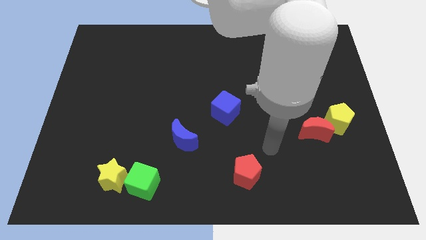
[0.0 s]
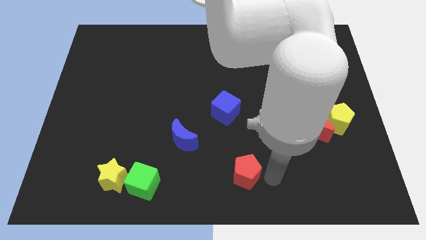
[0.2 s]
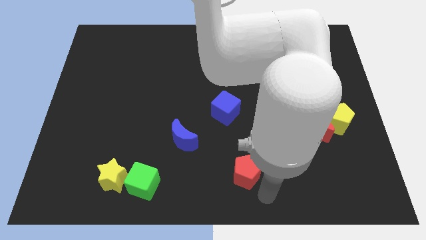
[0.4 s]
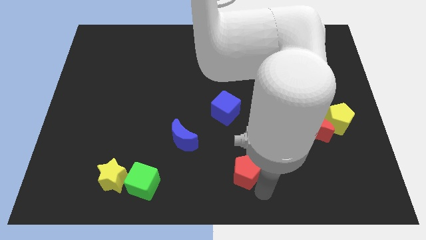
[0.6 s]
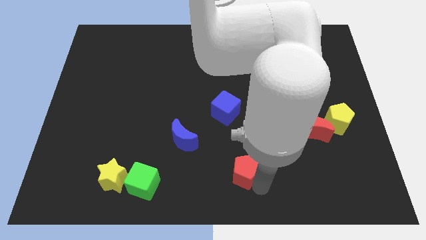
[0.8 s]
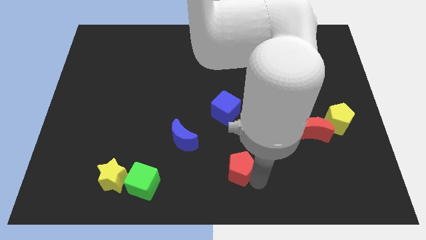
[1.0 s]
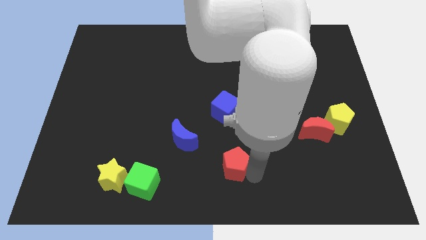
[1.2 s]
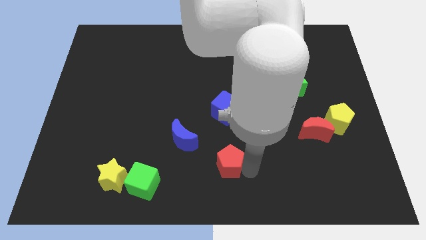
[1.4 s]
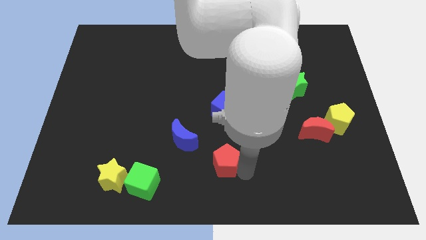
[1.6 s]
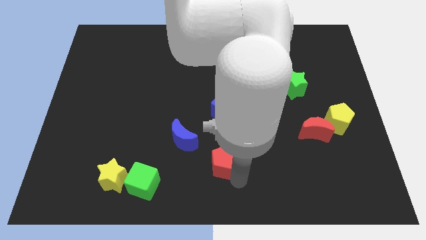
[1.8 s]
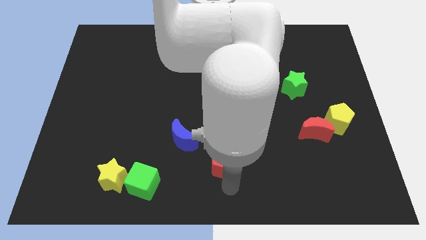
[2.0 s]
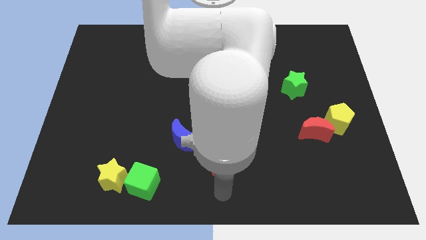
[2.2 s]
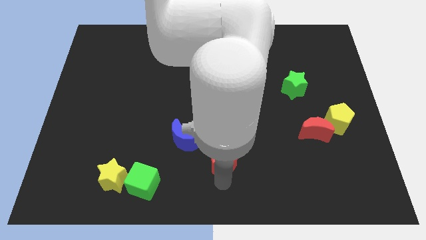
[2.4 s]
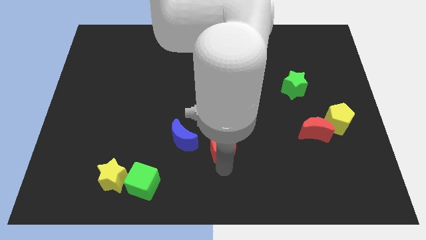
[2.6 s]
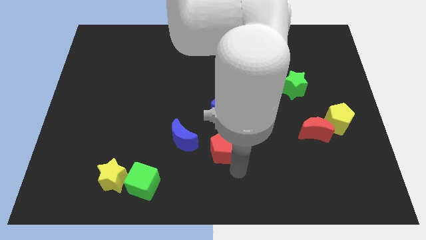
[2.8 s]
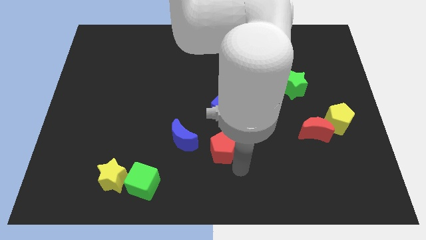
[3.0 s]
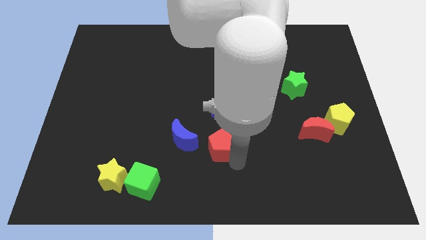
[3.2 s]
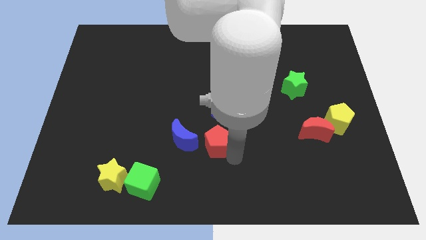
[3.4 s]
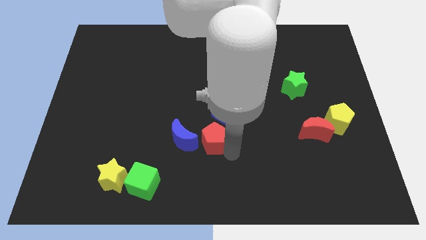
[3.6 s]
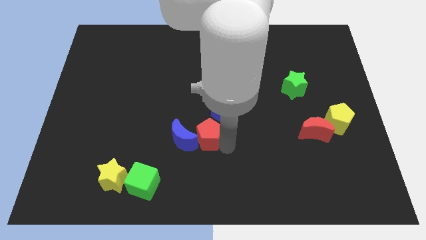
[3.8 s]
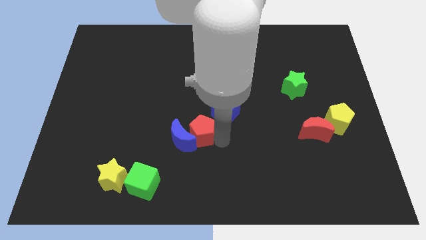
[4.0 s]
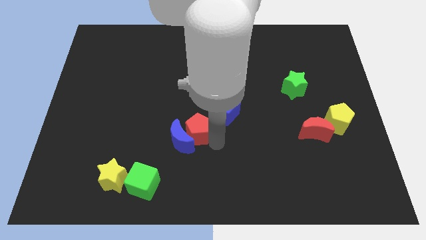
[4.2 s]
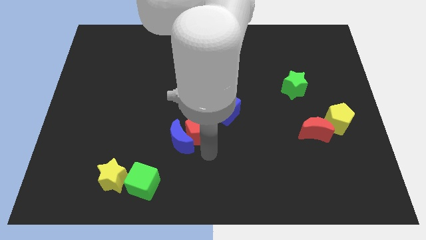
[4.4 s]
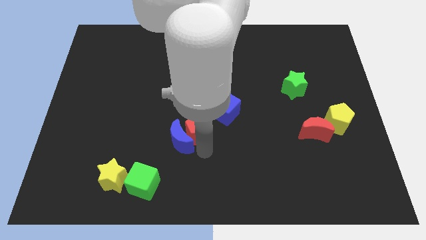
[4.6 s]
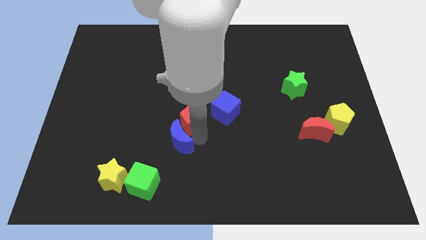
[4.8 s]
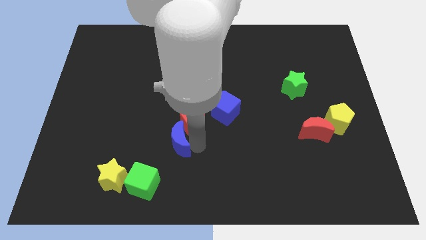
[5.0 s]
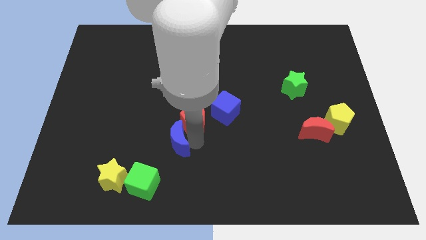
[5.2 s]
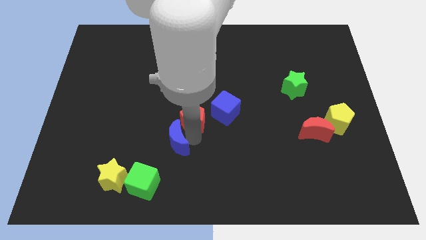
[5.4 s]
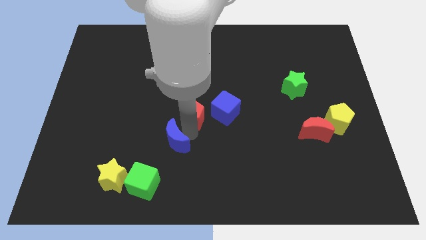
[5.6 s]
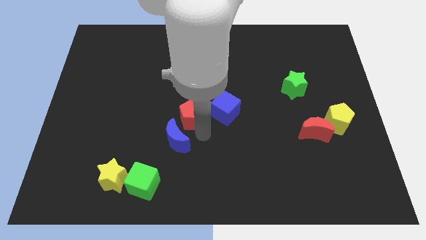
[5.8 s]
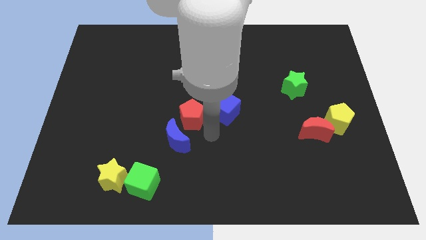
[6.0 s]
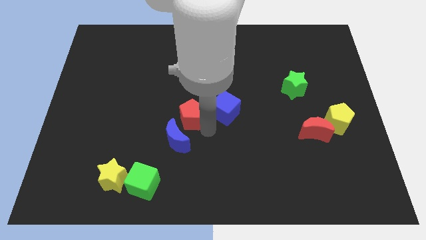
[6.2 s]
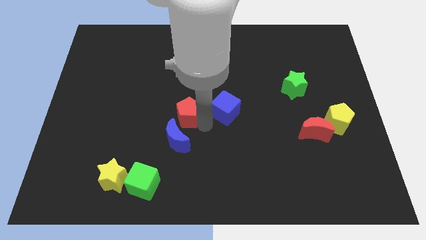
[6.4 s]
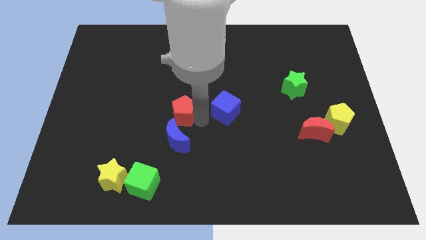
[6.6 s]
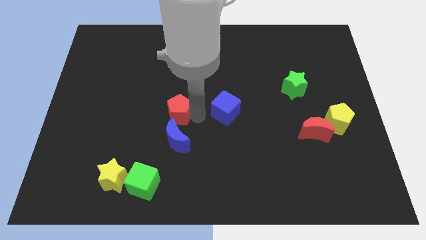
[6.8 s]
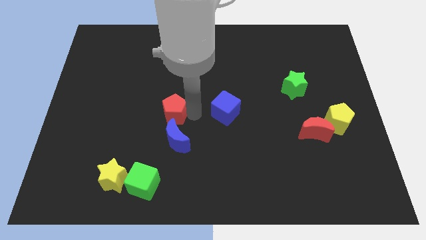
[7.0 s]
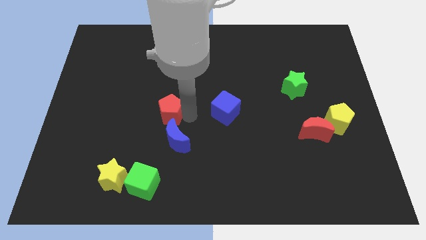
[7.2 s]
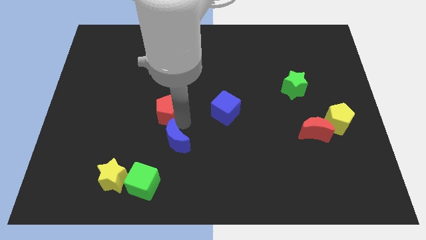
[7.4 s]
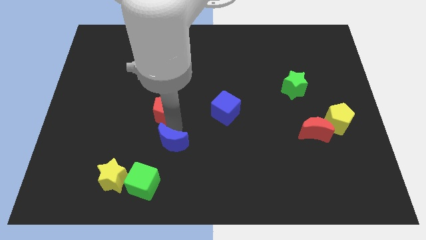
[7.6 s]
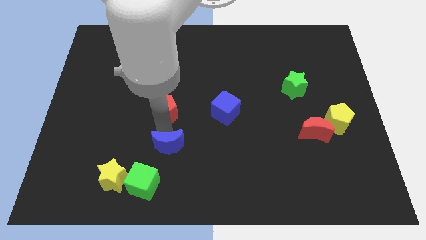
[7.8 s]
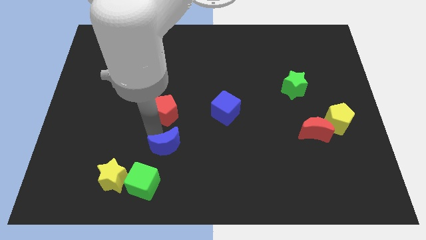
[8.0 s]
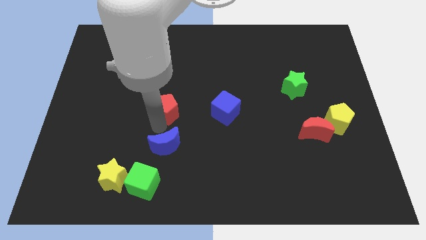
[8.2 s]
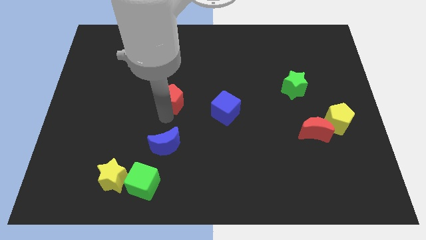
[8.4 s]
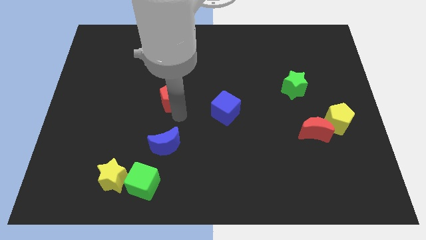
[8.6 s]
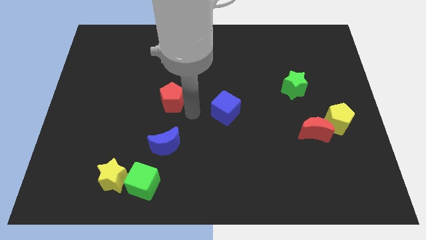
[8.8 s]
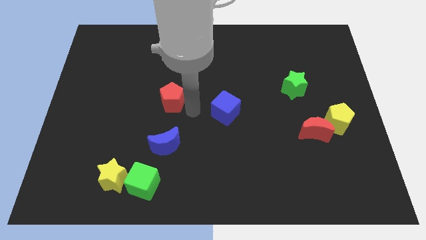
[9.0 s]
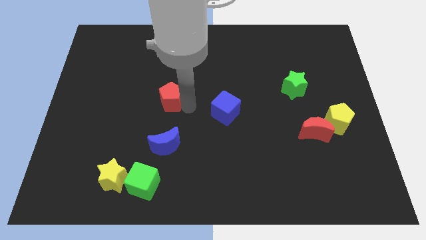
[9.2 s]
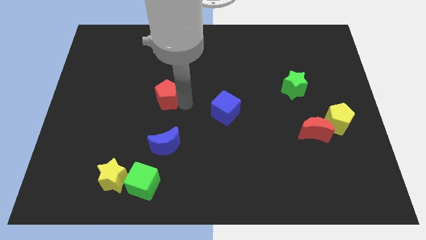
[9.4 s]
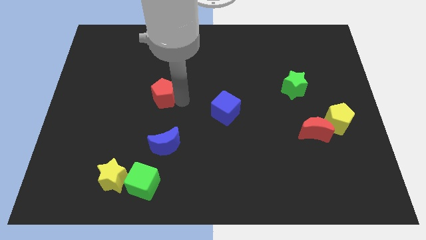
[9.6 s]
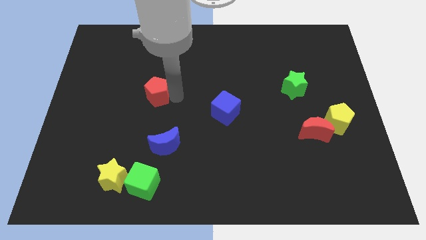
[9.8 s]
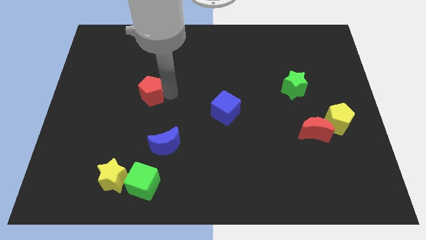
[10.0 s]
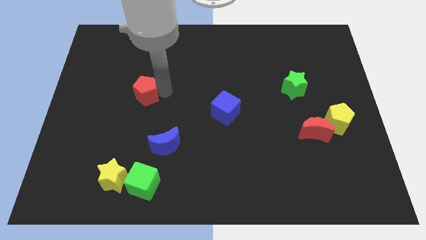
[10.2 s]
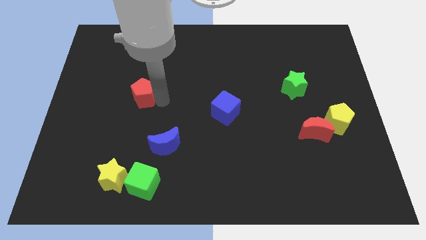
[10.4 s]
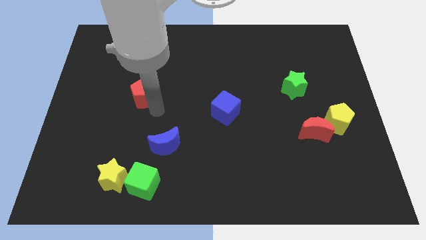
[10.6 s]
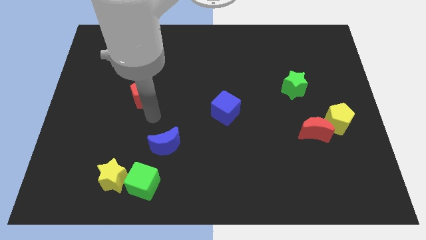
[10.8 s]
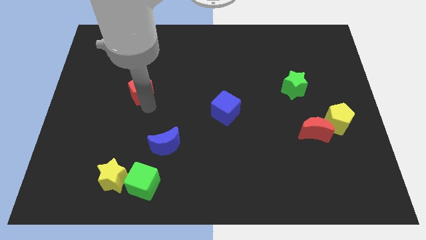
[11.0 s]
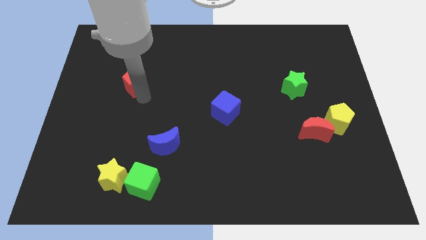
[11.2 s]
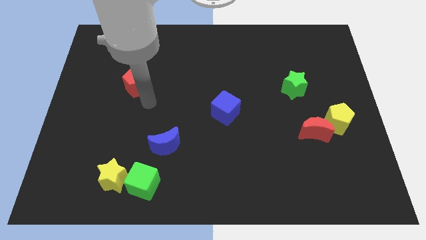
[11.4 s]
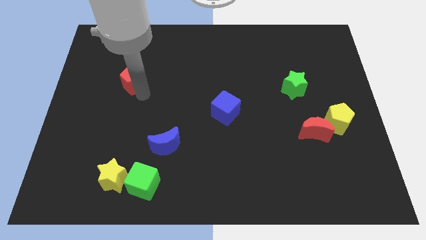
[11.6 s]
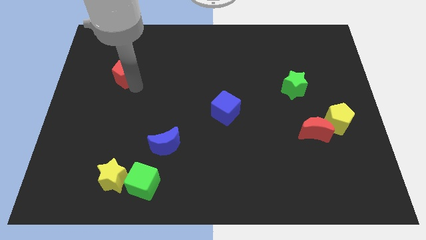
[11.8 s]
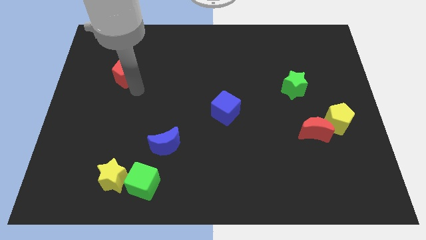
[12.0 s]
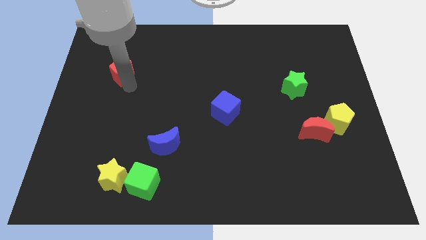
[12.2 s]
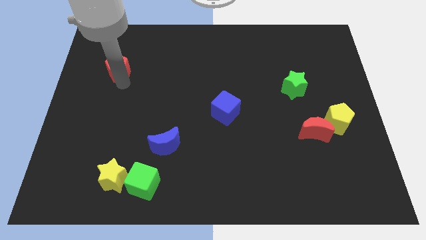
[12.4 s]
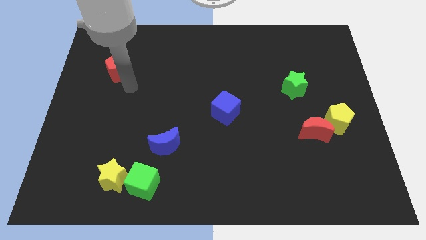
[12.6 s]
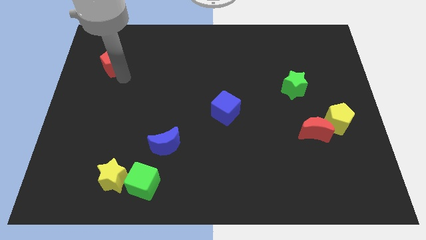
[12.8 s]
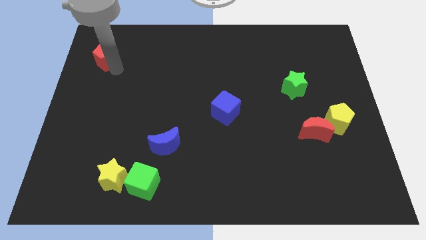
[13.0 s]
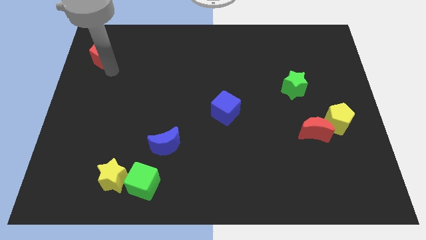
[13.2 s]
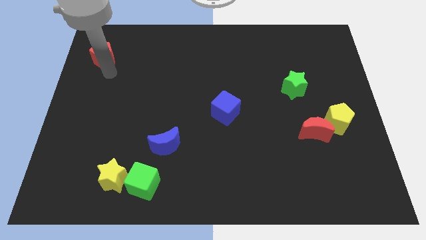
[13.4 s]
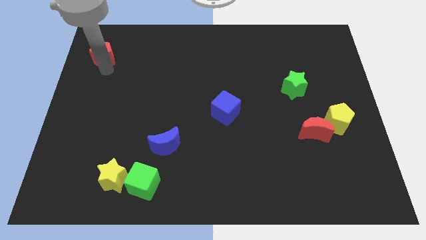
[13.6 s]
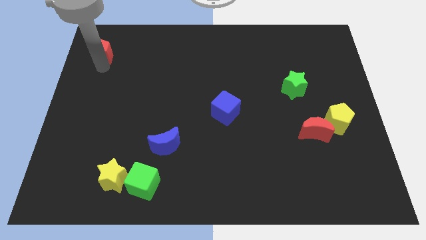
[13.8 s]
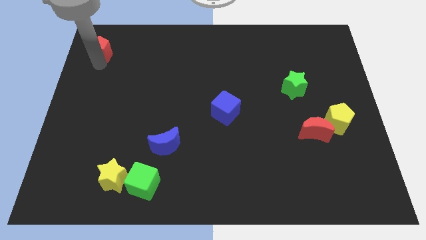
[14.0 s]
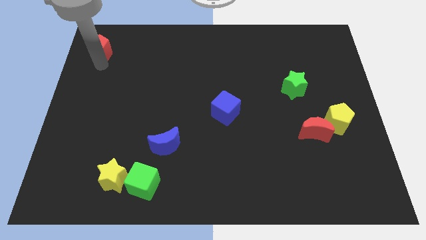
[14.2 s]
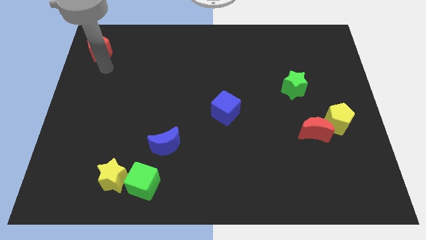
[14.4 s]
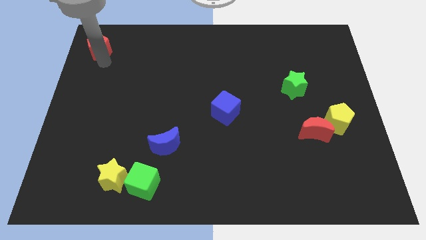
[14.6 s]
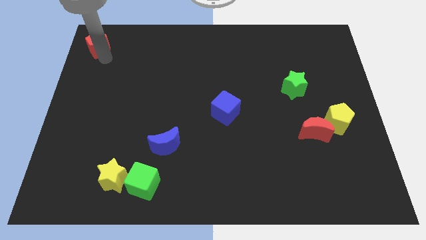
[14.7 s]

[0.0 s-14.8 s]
slide the red pentagon to the top left of the board

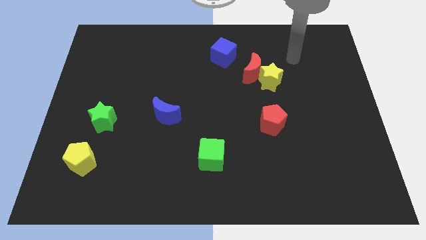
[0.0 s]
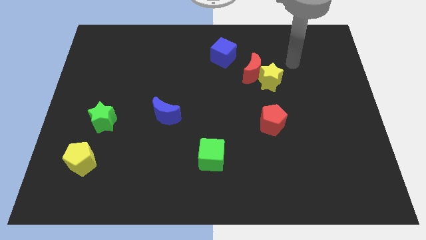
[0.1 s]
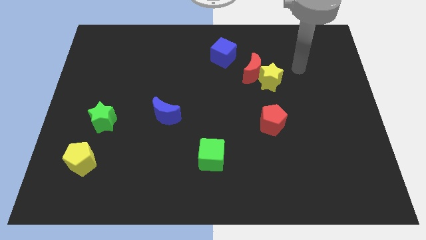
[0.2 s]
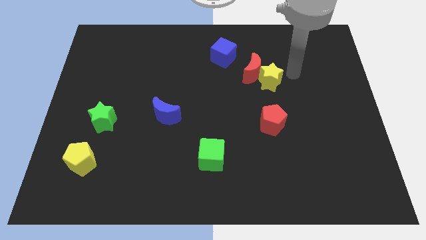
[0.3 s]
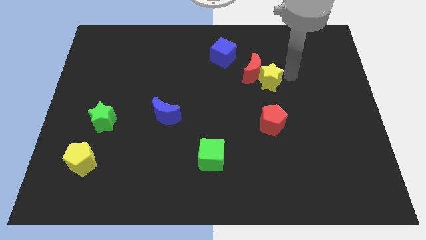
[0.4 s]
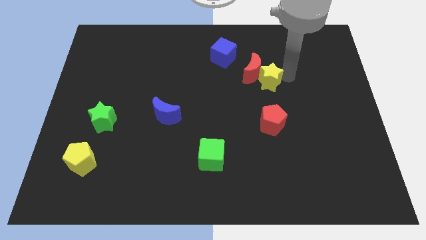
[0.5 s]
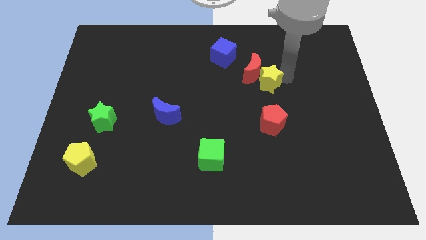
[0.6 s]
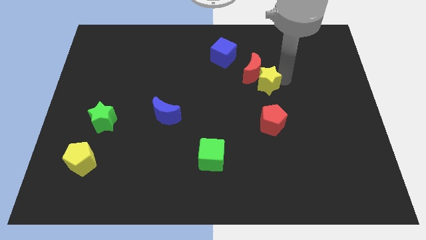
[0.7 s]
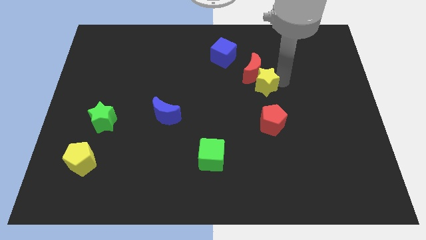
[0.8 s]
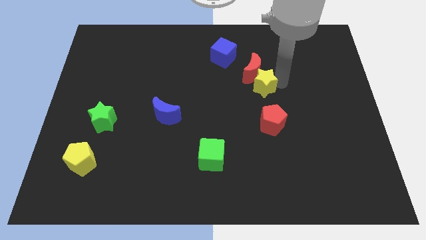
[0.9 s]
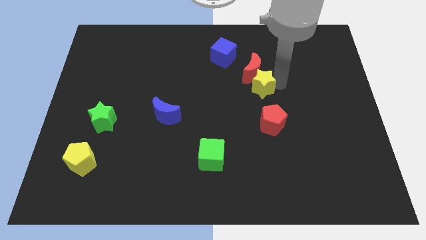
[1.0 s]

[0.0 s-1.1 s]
move the yellow star to the center of the board
